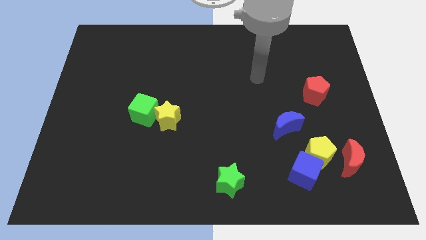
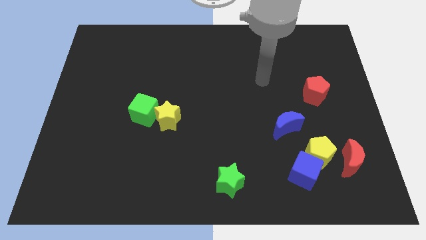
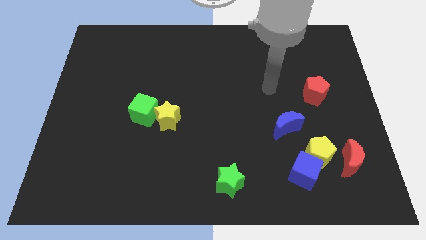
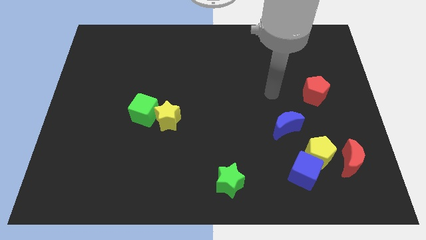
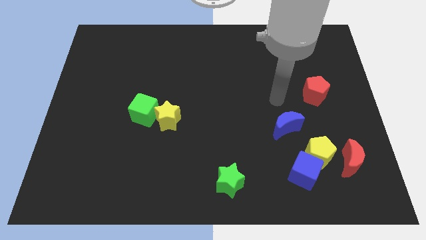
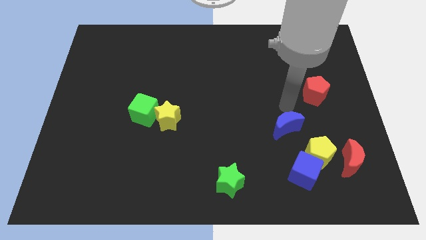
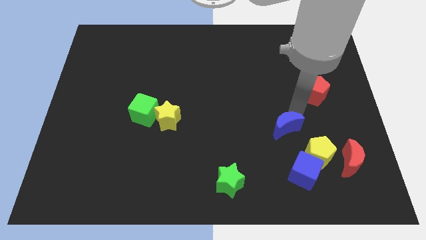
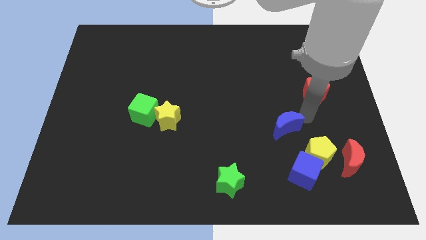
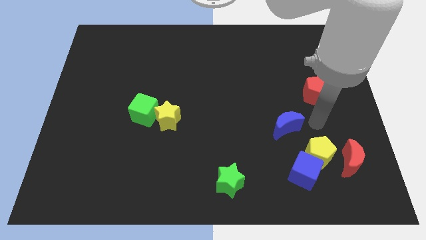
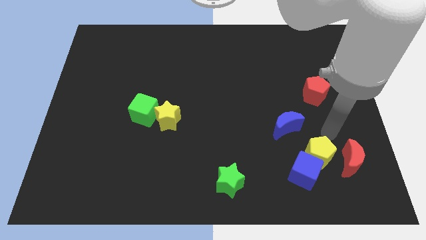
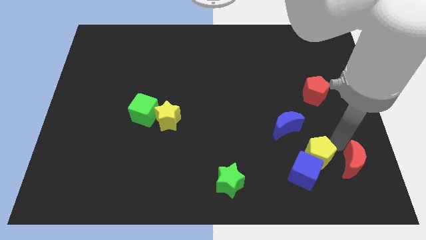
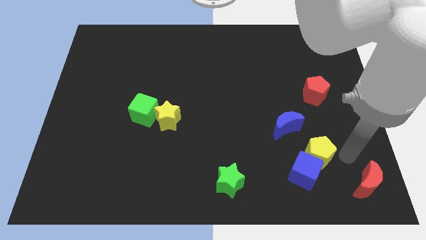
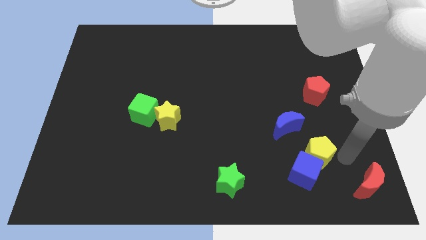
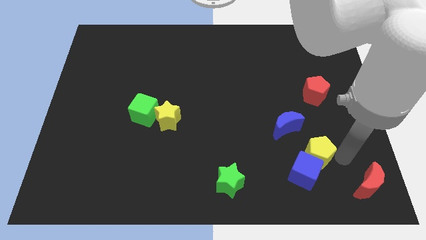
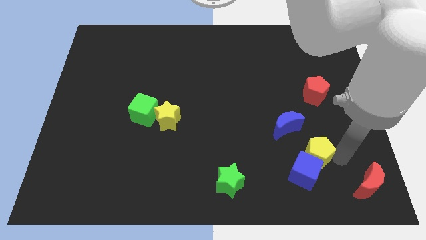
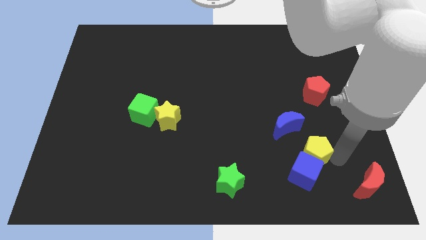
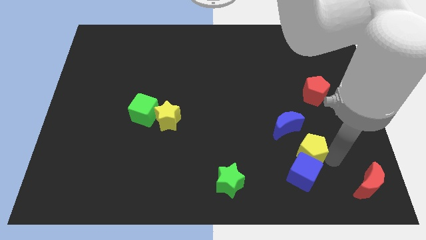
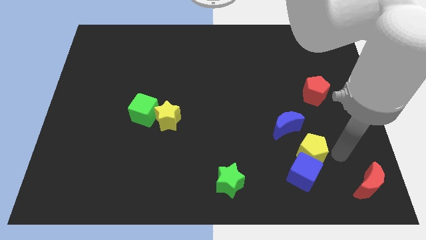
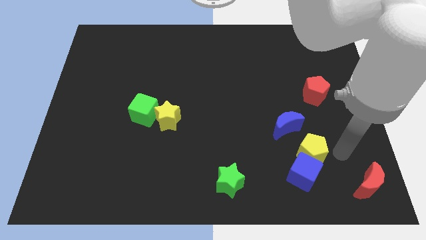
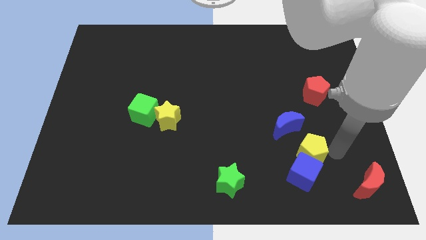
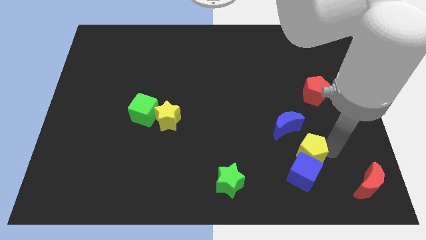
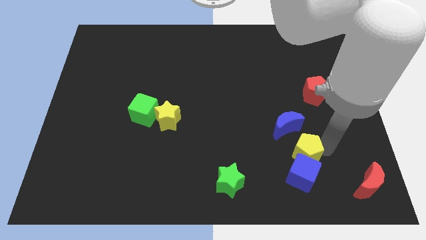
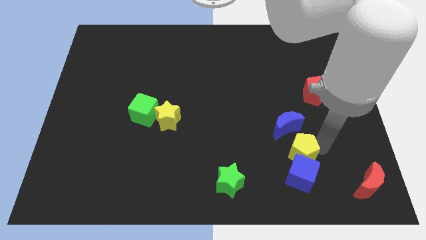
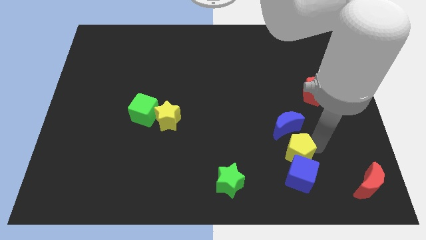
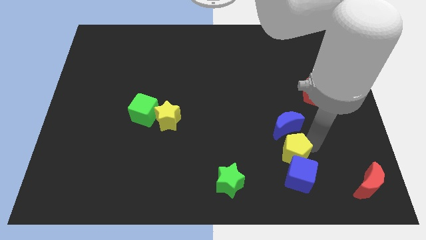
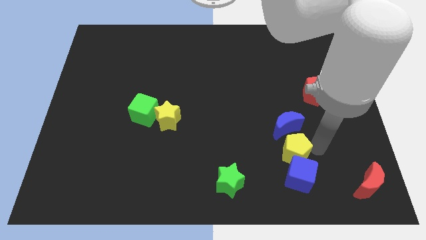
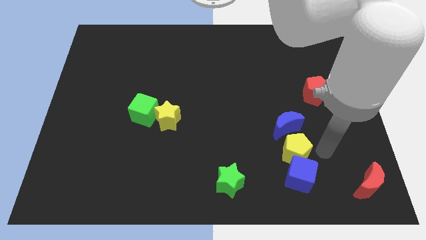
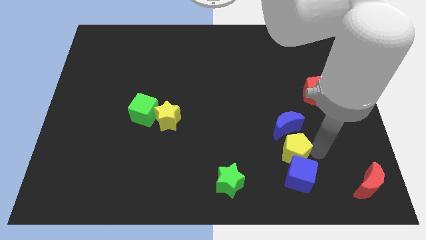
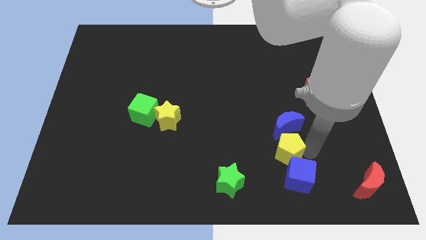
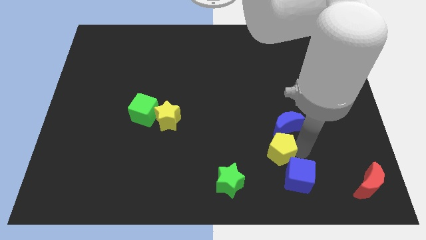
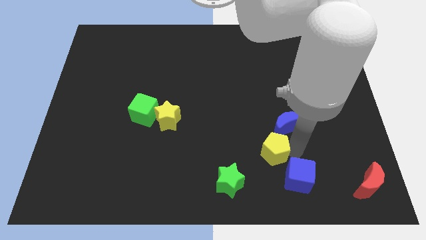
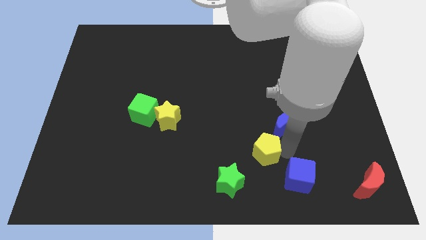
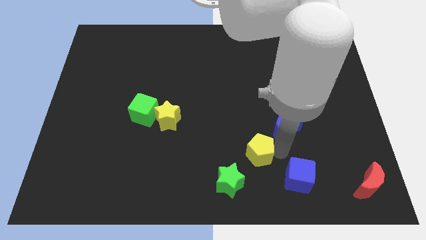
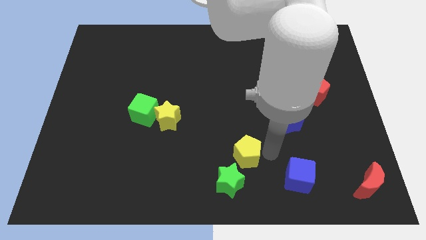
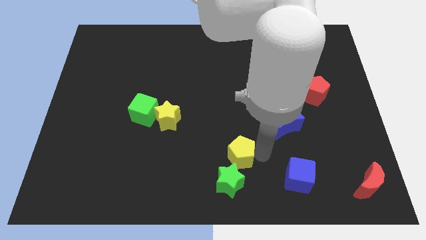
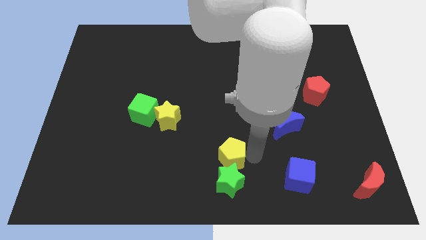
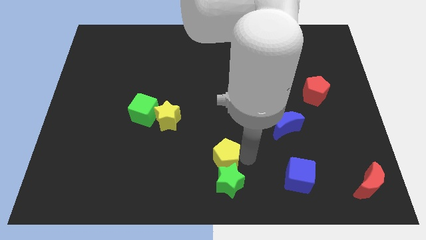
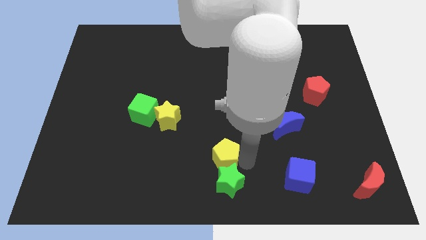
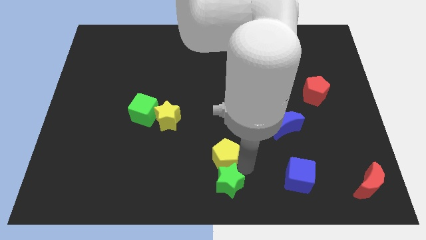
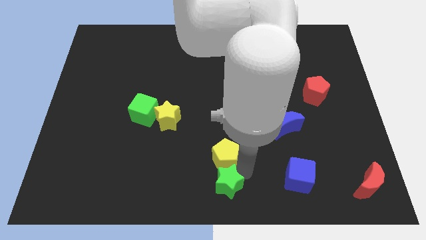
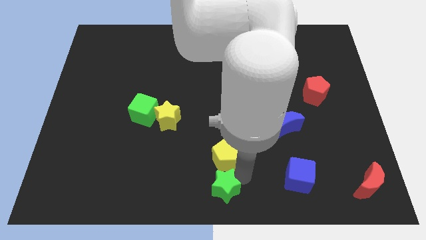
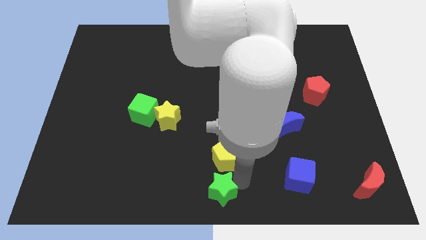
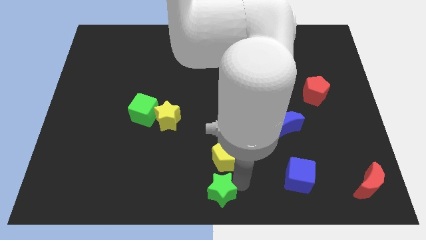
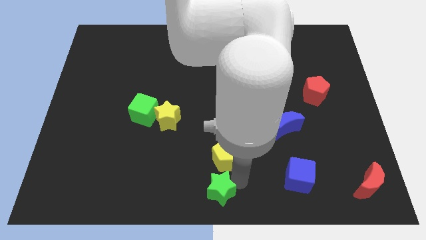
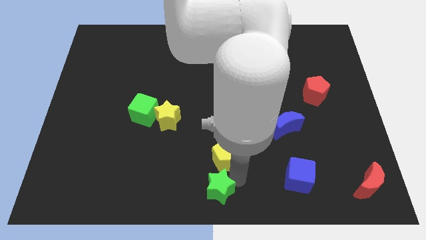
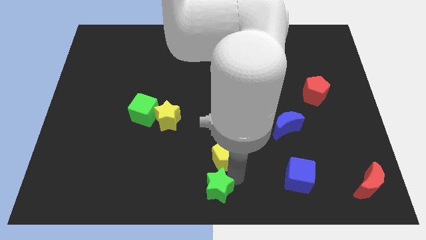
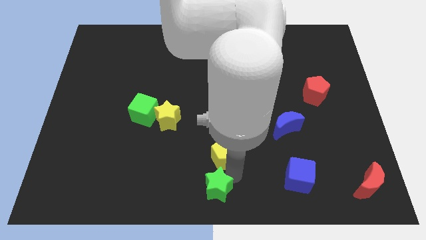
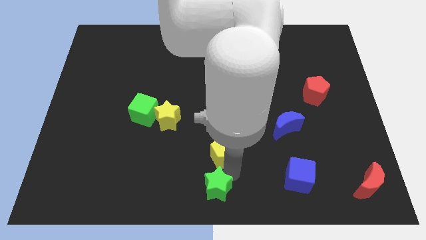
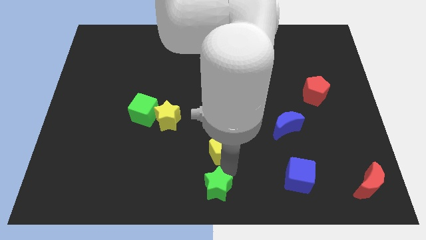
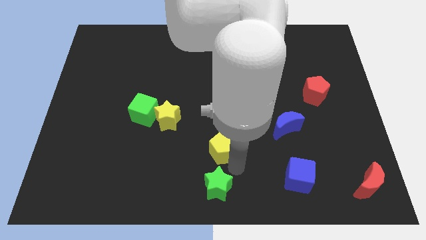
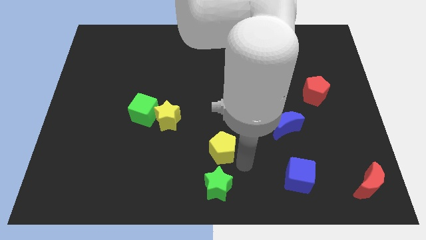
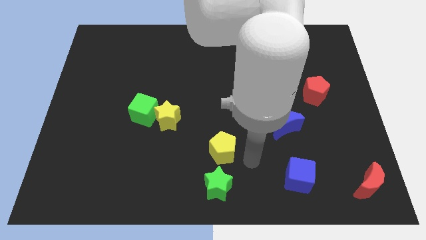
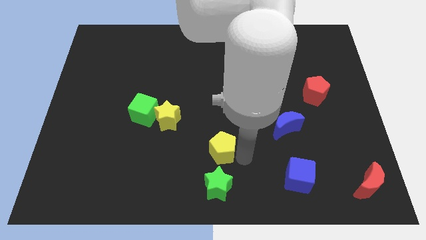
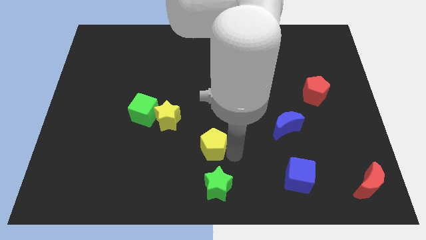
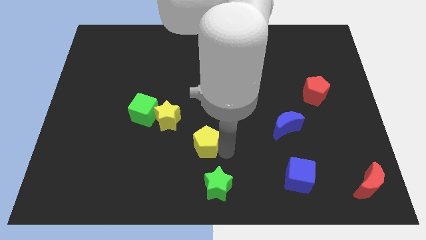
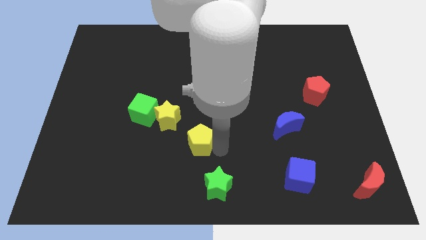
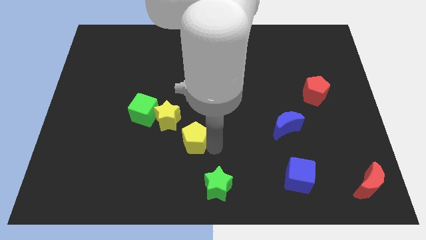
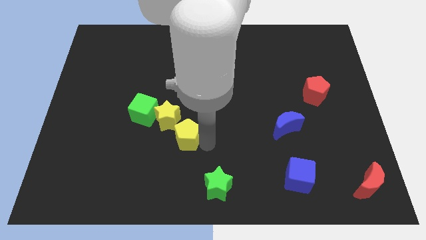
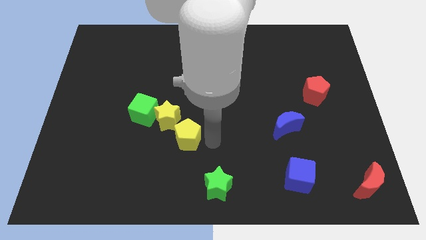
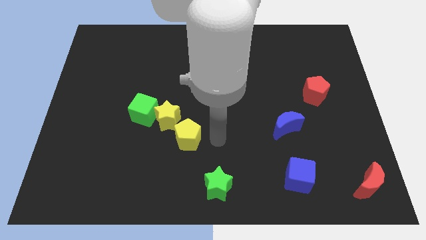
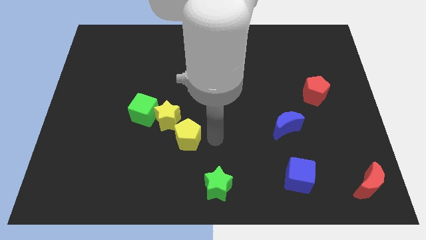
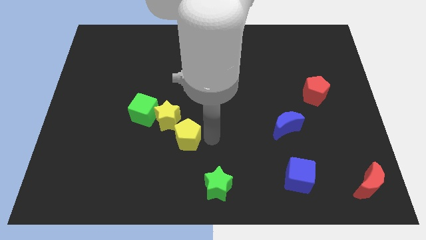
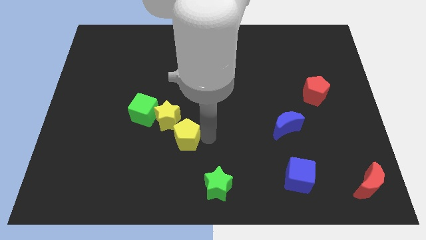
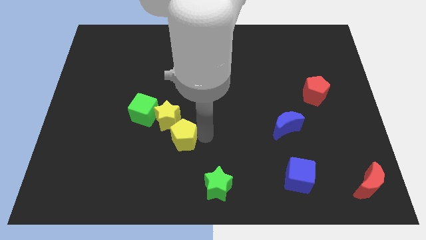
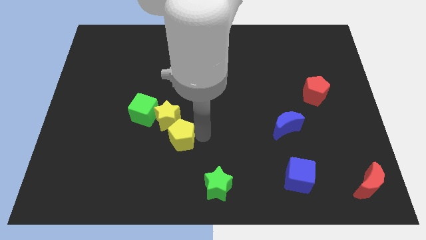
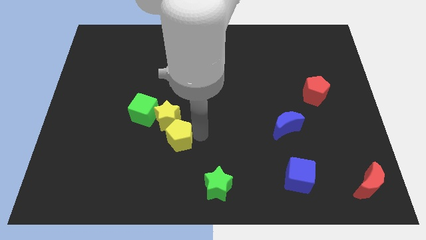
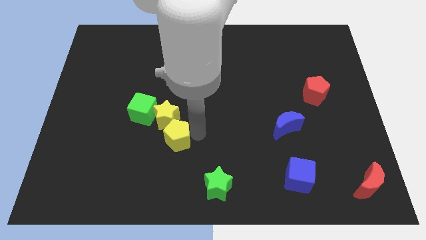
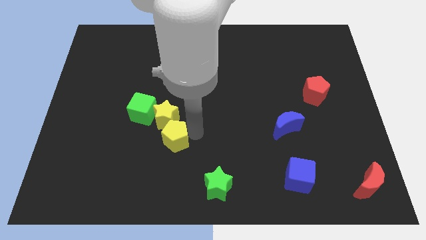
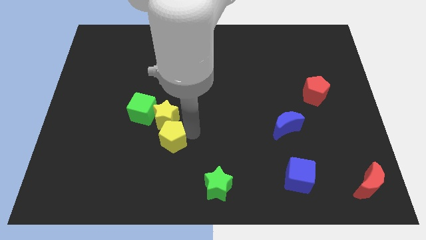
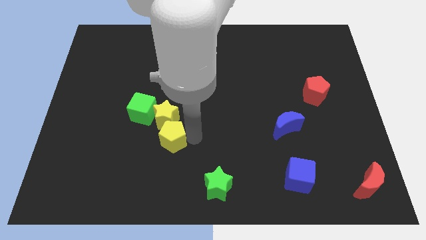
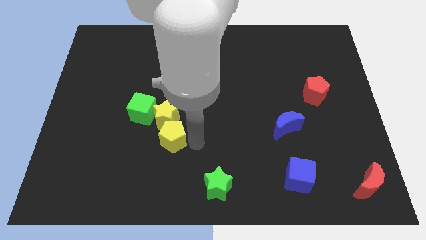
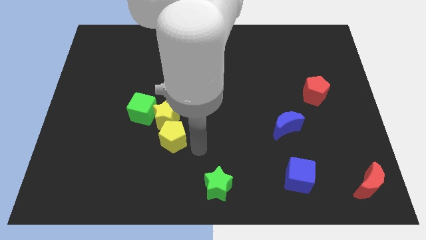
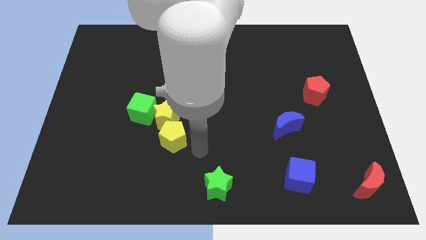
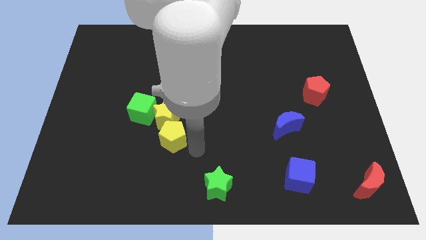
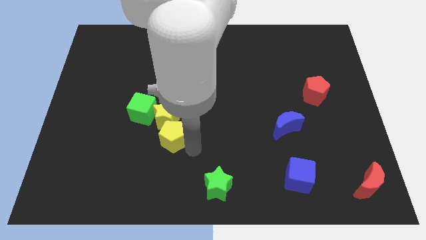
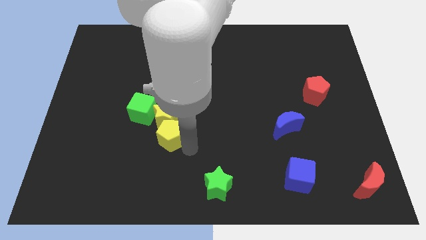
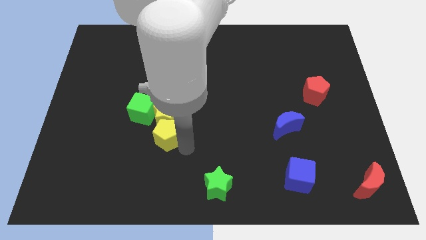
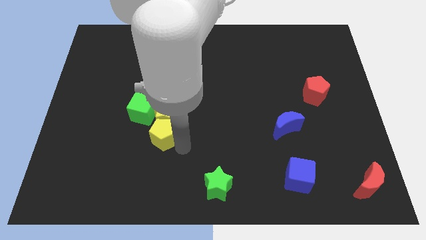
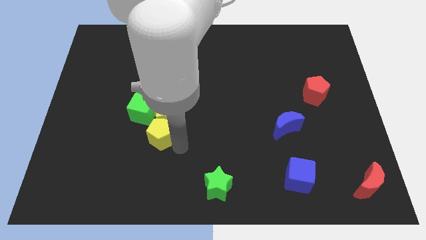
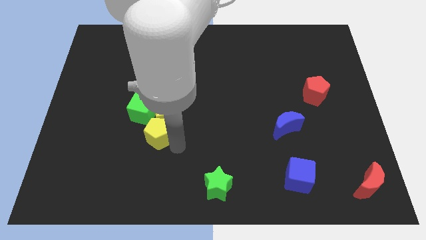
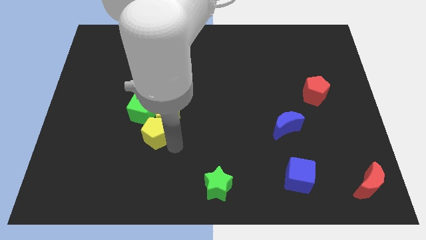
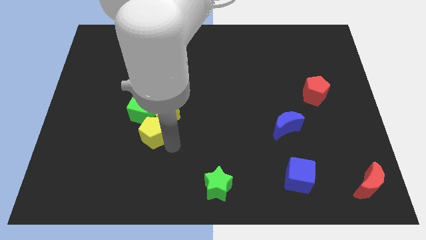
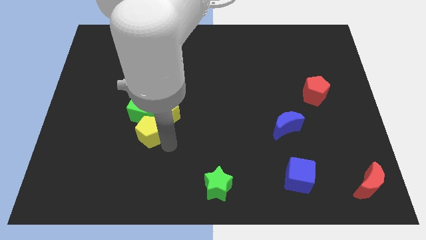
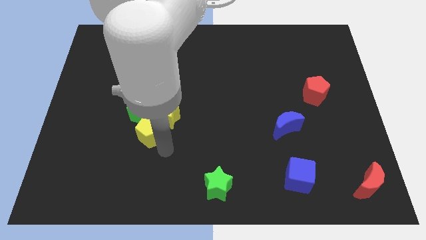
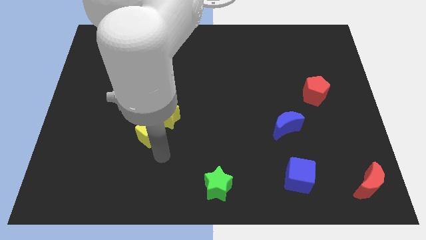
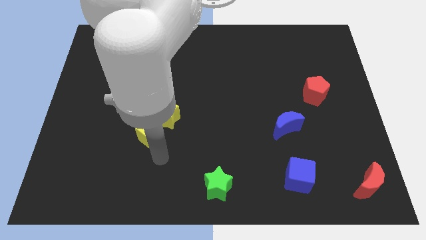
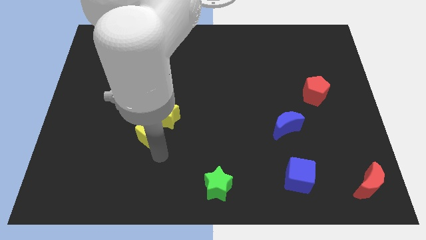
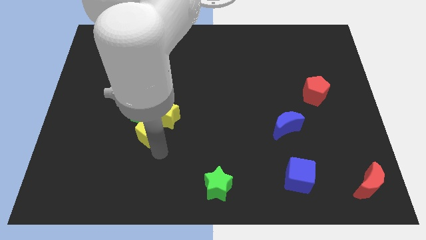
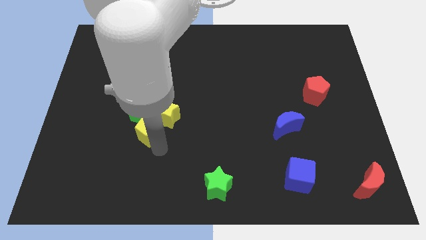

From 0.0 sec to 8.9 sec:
move the yellow pentagon close to the green cube
